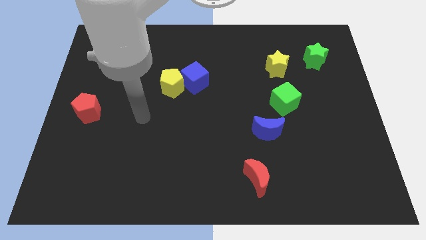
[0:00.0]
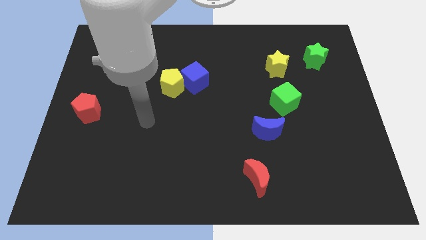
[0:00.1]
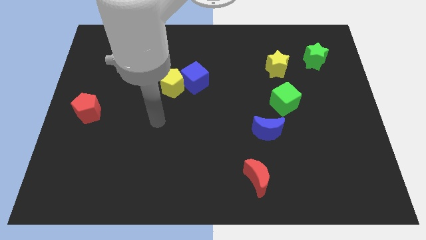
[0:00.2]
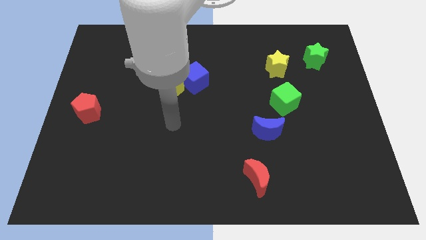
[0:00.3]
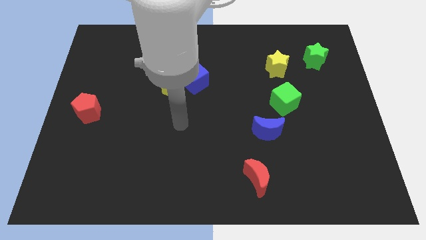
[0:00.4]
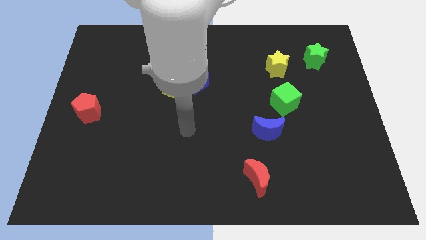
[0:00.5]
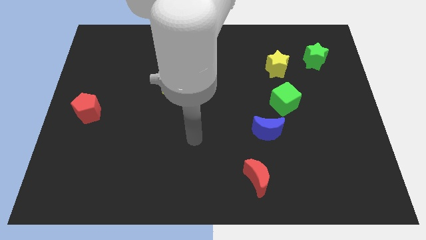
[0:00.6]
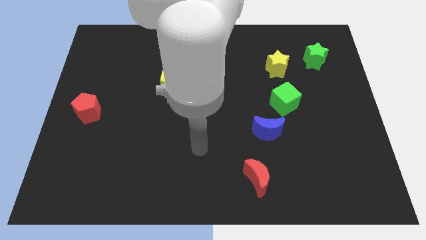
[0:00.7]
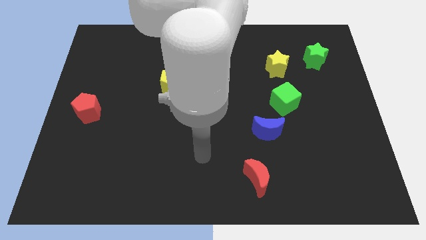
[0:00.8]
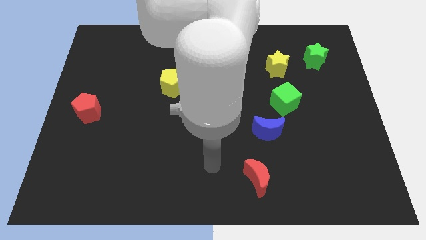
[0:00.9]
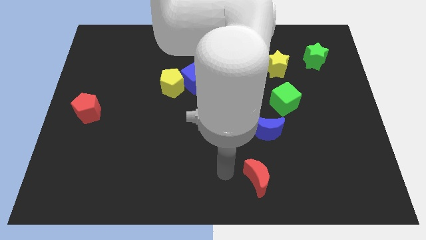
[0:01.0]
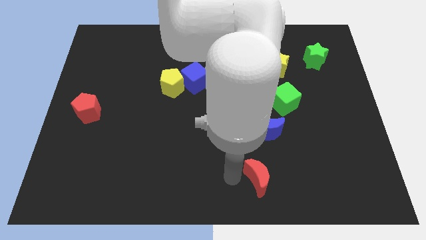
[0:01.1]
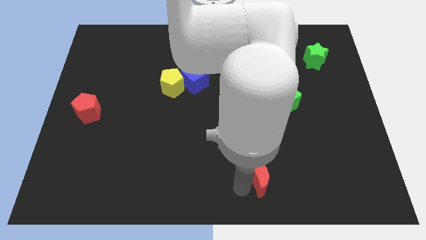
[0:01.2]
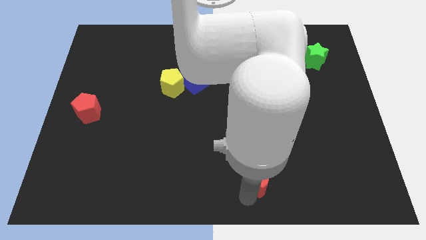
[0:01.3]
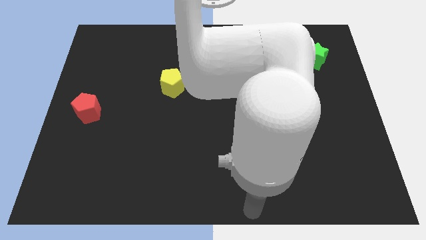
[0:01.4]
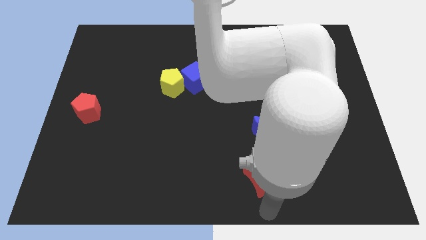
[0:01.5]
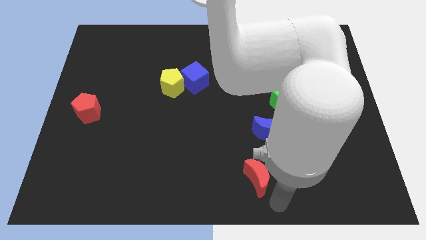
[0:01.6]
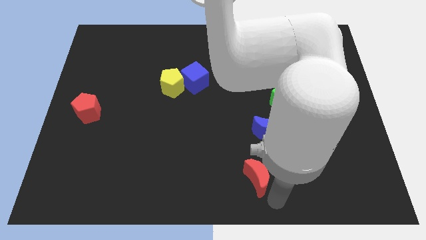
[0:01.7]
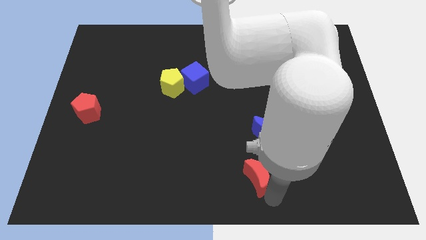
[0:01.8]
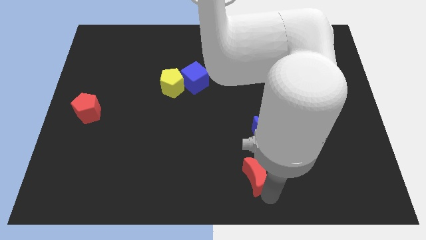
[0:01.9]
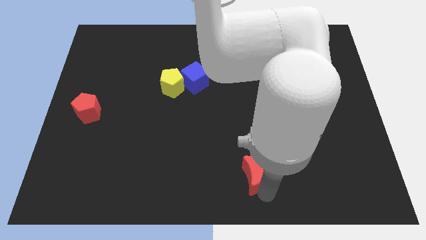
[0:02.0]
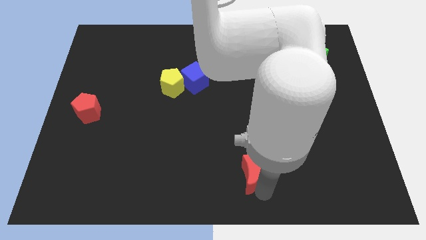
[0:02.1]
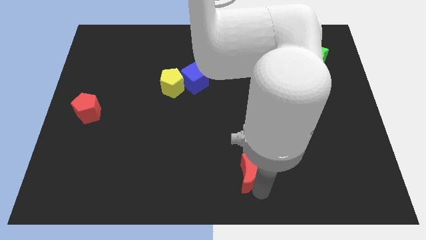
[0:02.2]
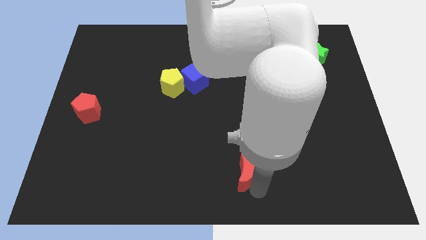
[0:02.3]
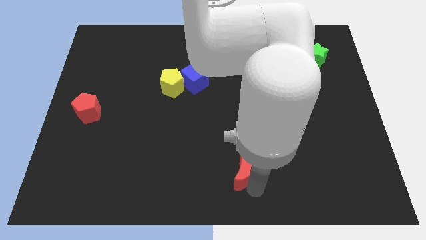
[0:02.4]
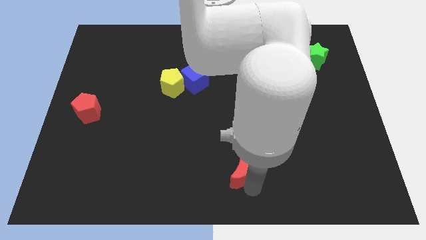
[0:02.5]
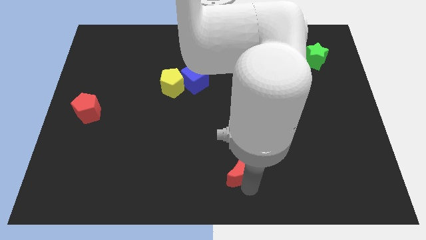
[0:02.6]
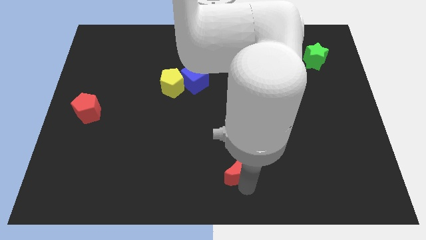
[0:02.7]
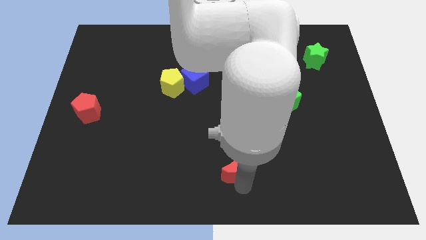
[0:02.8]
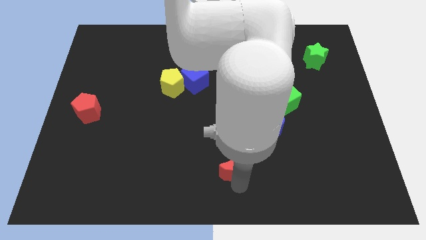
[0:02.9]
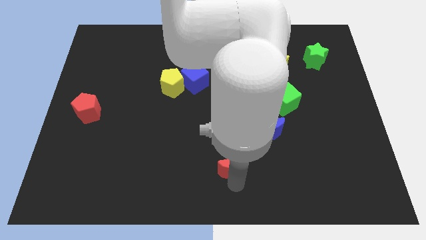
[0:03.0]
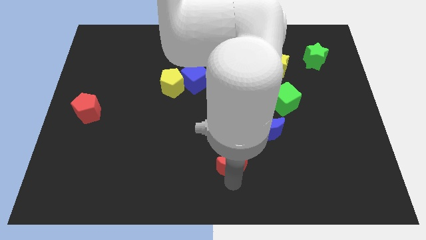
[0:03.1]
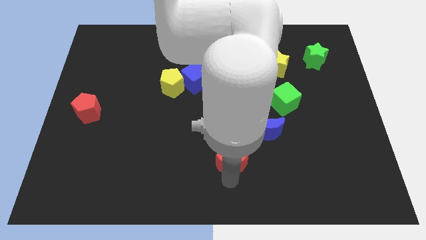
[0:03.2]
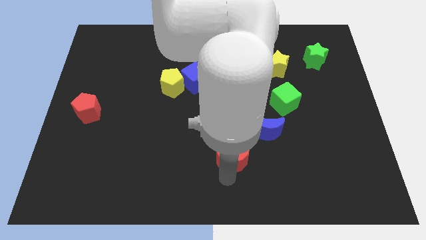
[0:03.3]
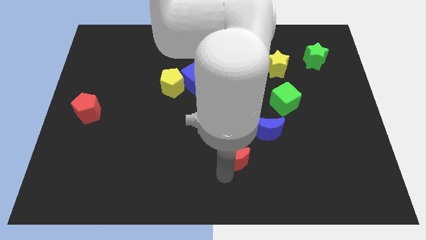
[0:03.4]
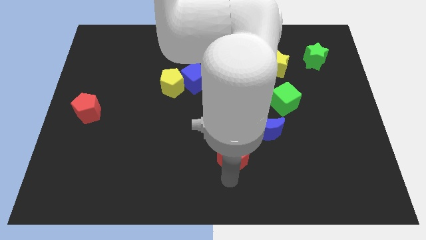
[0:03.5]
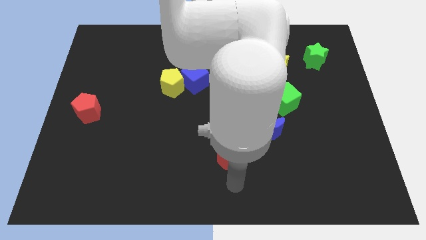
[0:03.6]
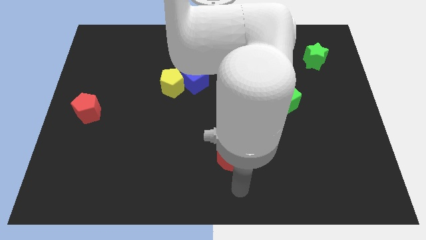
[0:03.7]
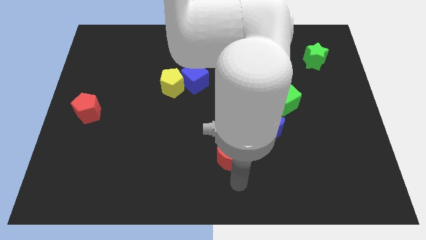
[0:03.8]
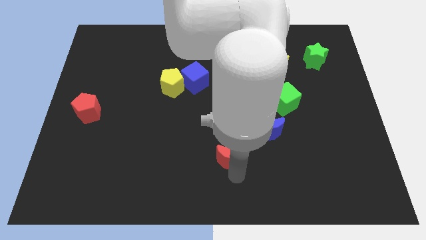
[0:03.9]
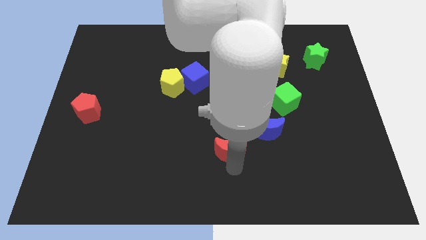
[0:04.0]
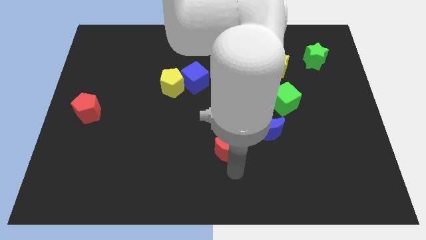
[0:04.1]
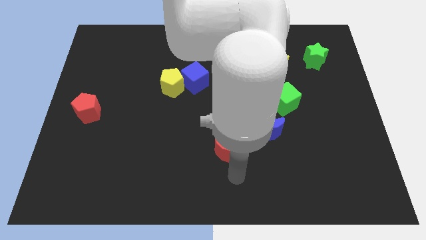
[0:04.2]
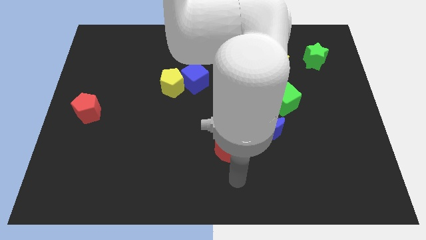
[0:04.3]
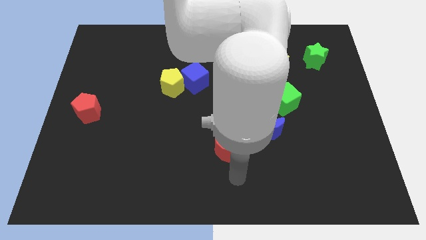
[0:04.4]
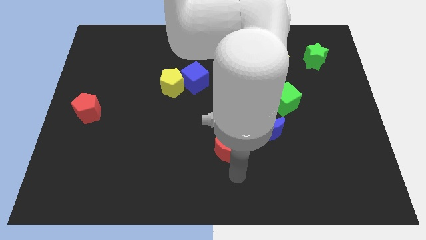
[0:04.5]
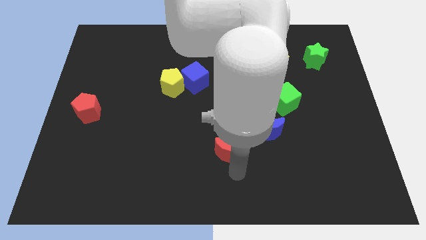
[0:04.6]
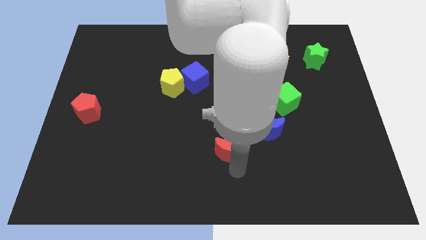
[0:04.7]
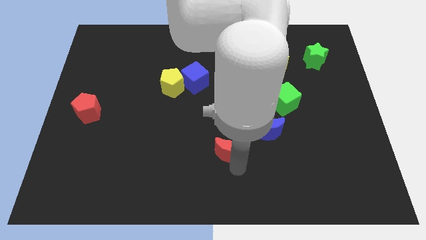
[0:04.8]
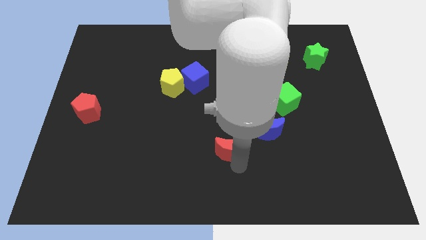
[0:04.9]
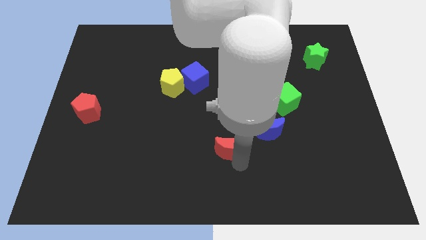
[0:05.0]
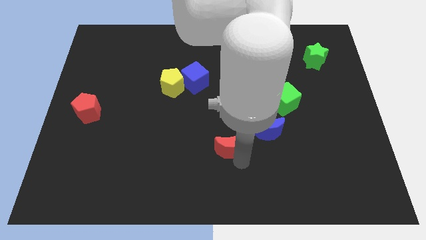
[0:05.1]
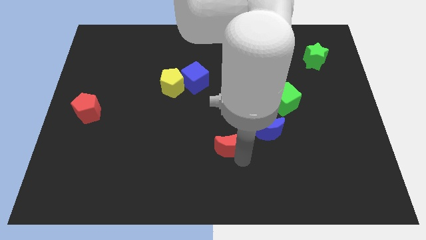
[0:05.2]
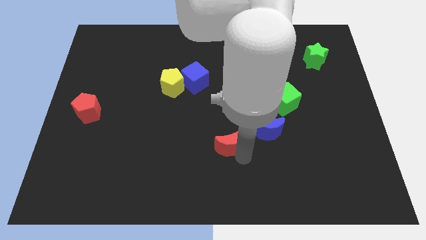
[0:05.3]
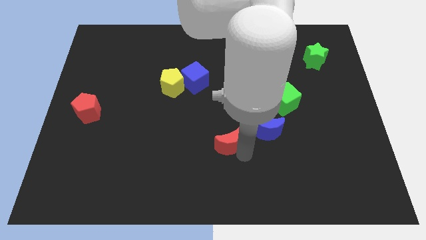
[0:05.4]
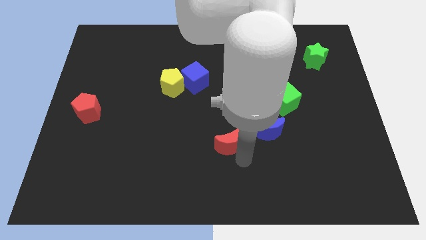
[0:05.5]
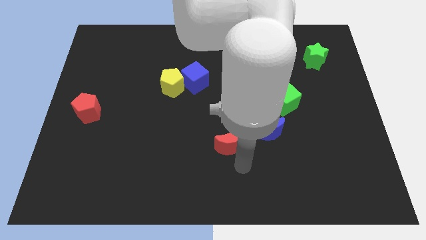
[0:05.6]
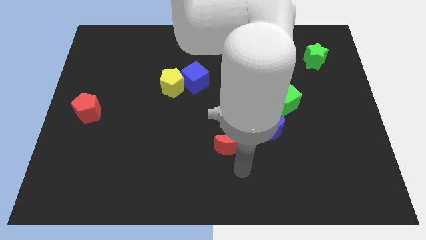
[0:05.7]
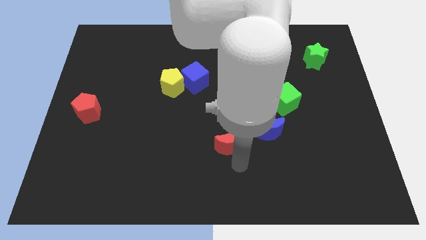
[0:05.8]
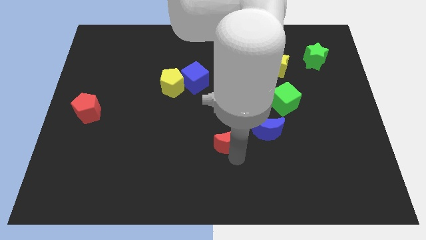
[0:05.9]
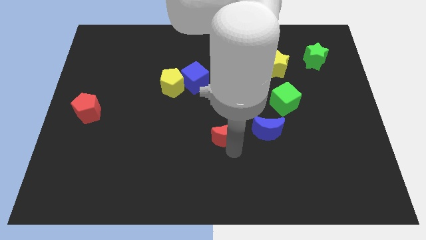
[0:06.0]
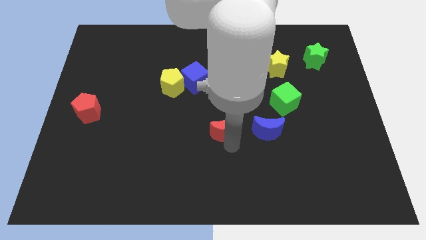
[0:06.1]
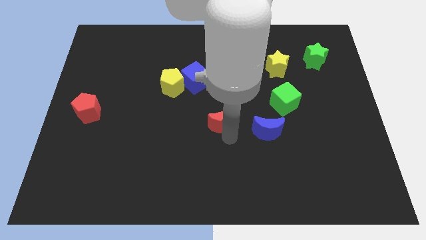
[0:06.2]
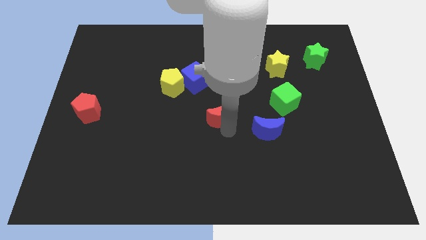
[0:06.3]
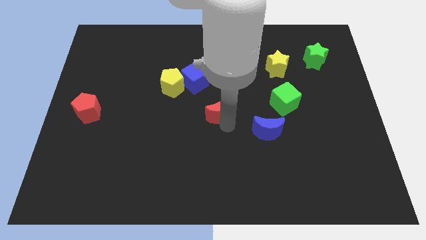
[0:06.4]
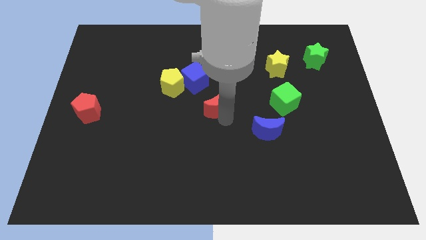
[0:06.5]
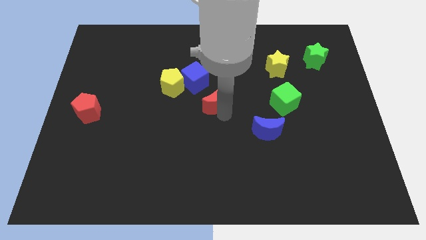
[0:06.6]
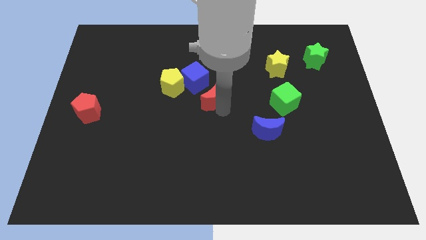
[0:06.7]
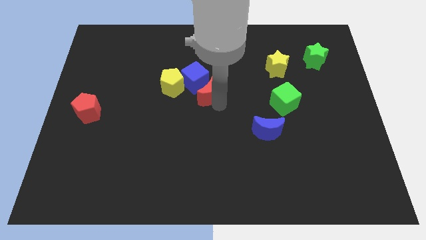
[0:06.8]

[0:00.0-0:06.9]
put the red moon towards the blue cube

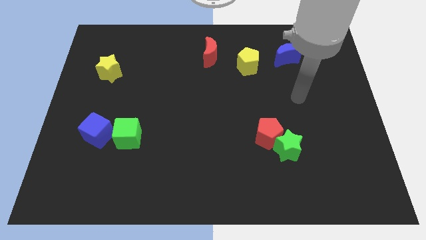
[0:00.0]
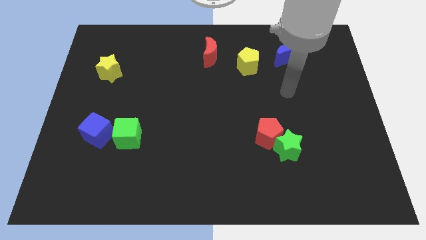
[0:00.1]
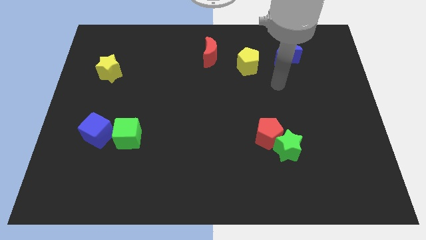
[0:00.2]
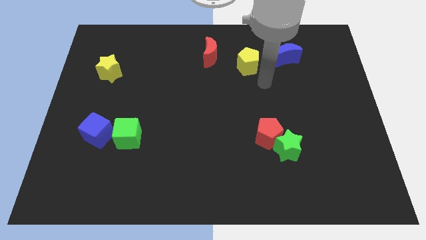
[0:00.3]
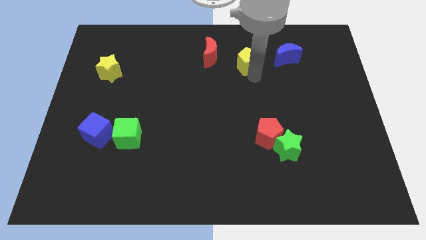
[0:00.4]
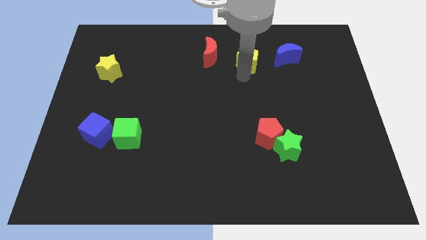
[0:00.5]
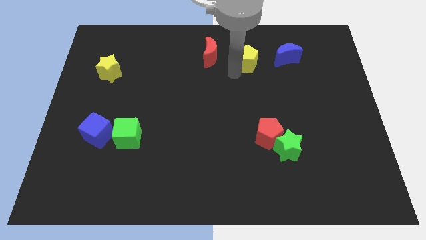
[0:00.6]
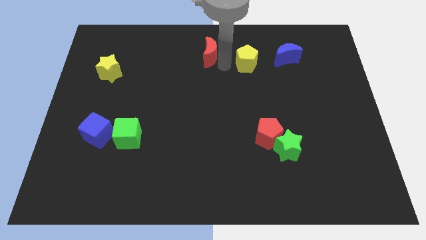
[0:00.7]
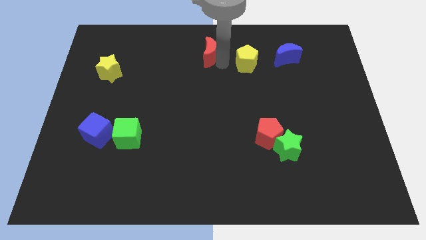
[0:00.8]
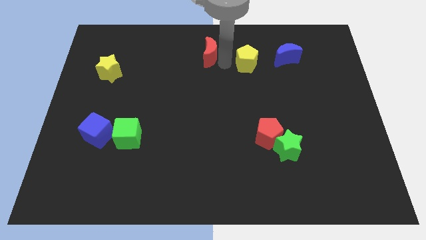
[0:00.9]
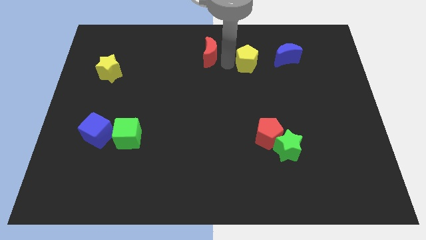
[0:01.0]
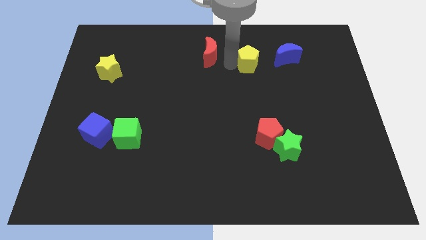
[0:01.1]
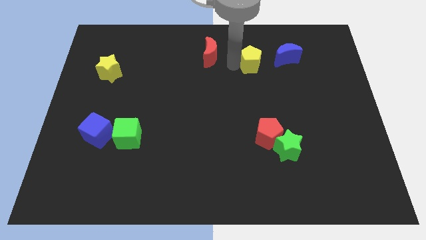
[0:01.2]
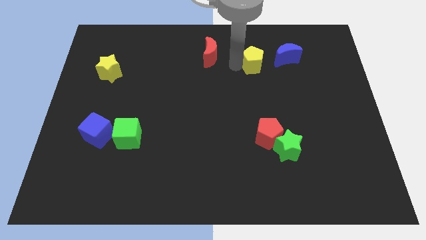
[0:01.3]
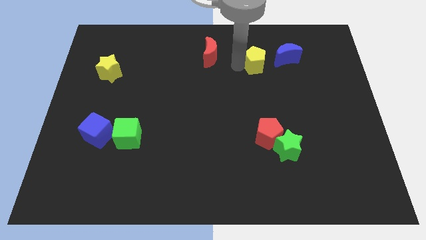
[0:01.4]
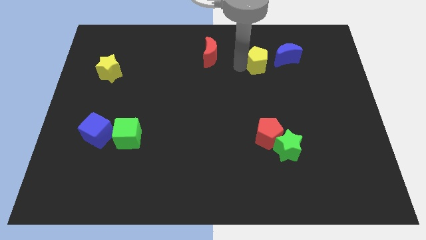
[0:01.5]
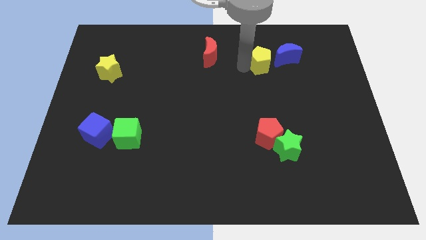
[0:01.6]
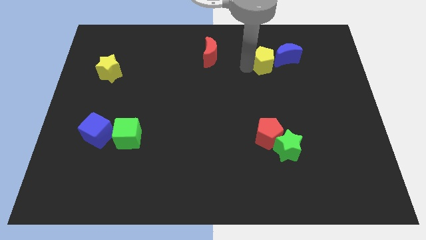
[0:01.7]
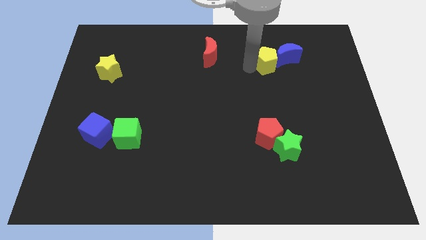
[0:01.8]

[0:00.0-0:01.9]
push the yellow pentagon close to the blue moon
